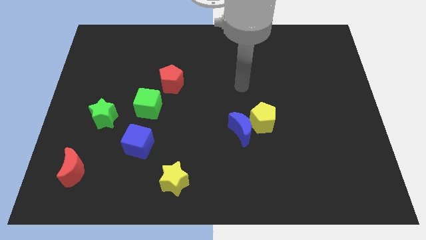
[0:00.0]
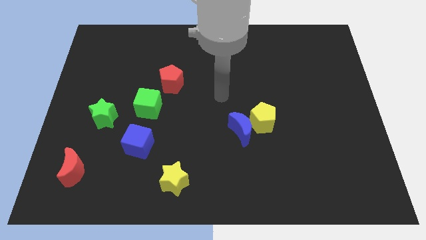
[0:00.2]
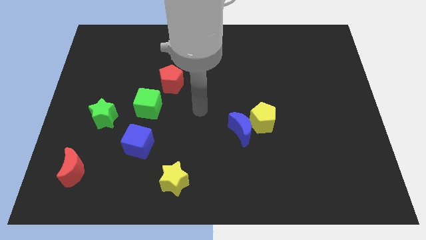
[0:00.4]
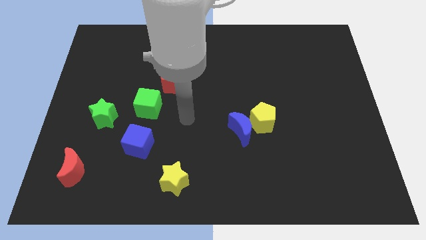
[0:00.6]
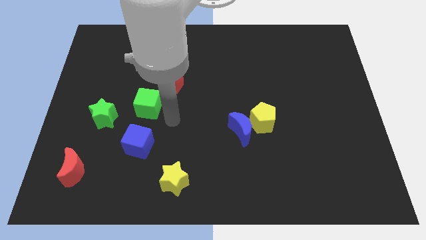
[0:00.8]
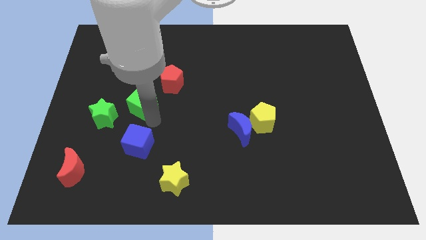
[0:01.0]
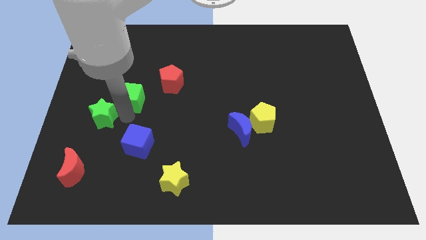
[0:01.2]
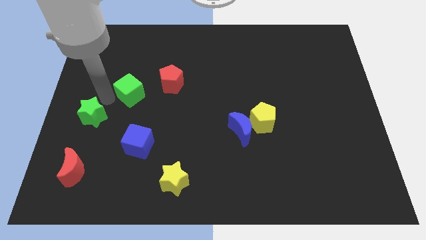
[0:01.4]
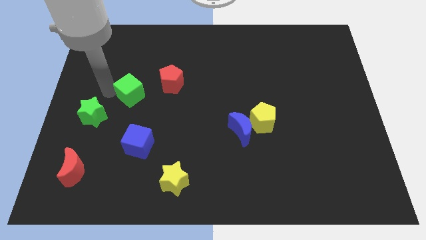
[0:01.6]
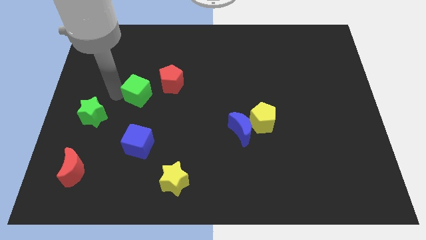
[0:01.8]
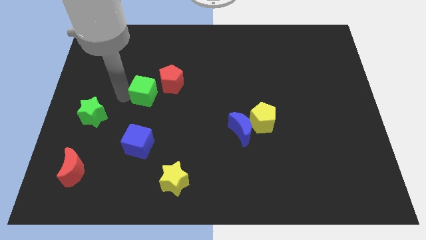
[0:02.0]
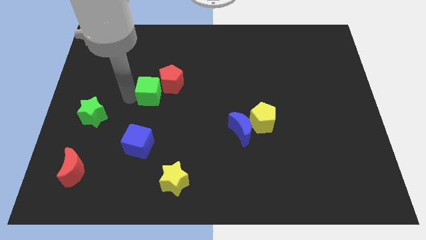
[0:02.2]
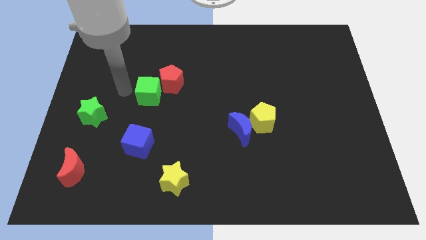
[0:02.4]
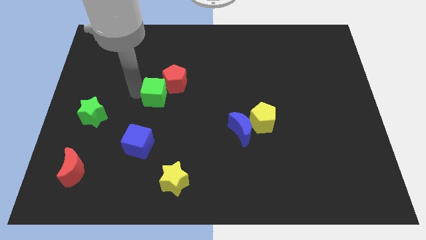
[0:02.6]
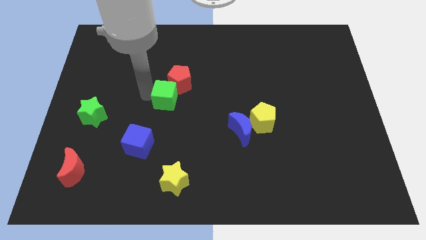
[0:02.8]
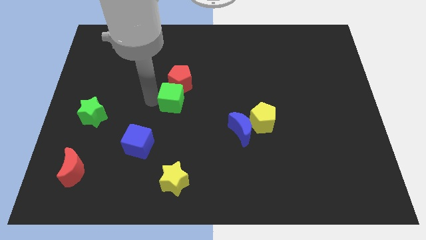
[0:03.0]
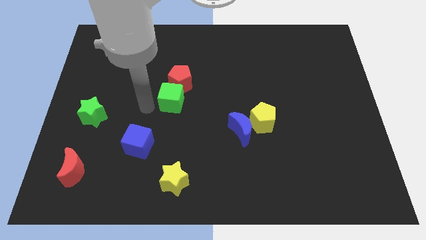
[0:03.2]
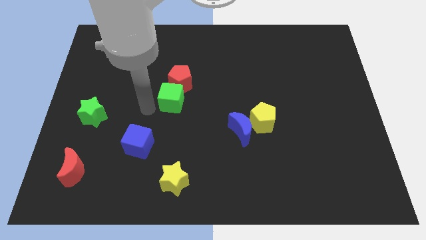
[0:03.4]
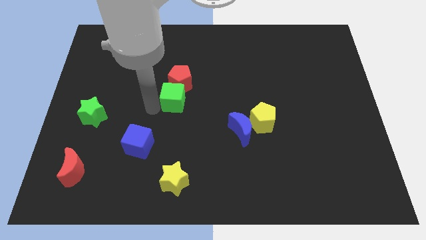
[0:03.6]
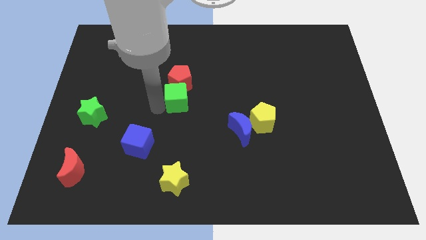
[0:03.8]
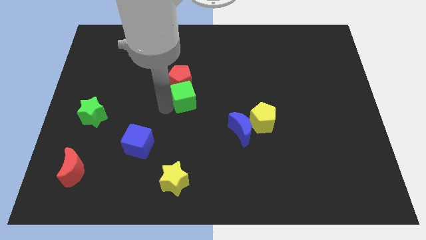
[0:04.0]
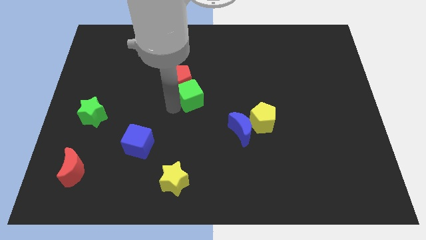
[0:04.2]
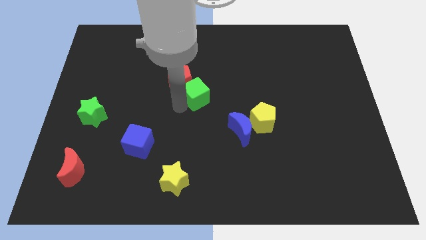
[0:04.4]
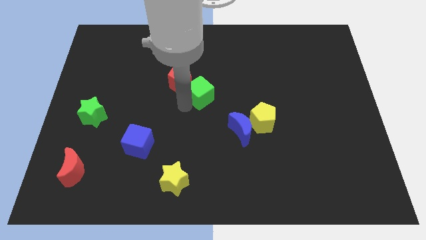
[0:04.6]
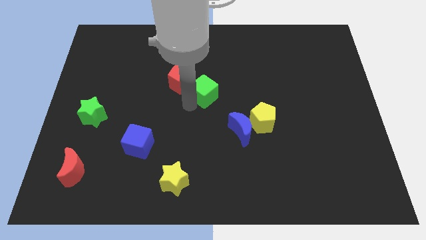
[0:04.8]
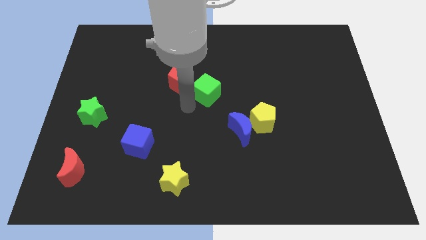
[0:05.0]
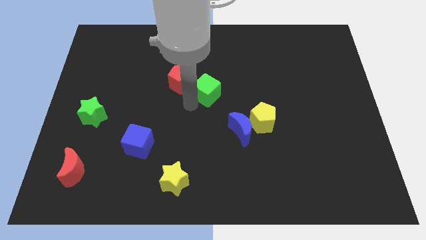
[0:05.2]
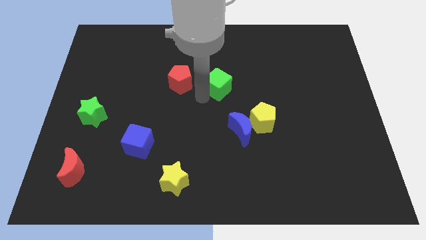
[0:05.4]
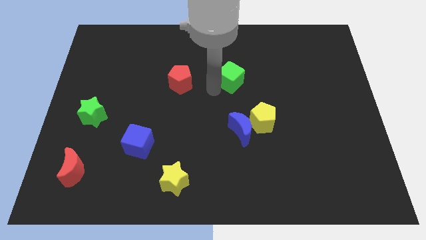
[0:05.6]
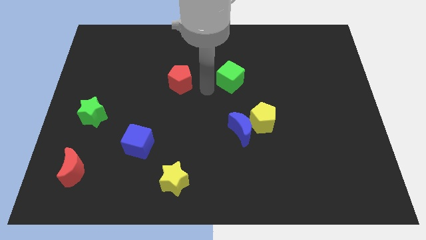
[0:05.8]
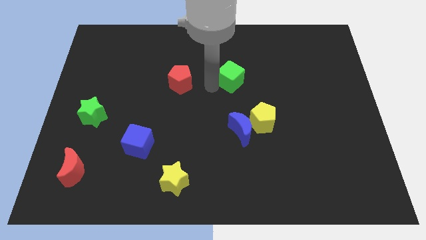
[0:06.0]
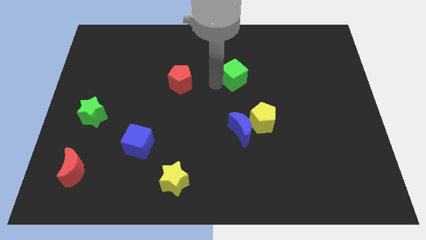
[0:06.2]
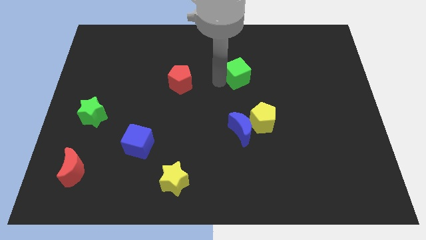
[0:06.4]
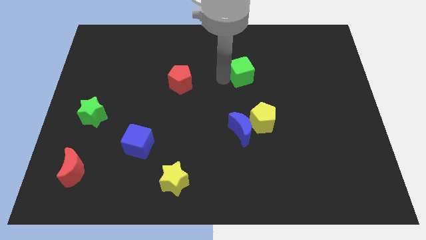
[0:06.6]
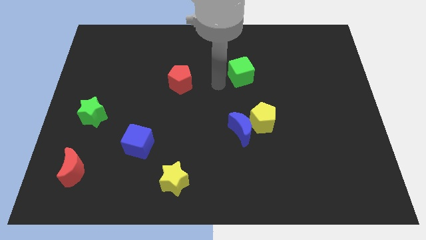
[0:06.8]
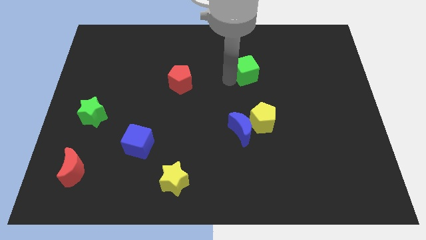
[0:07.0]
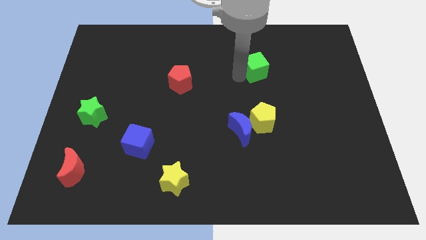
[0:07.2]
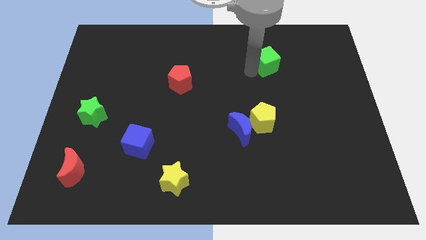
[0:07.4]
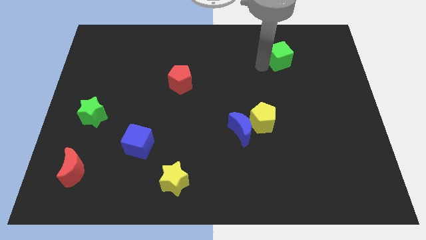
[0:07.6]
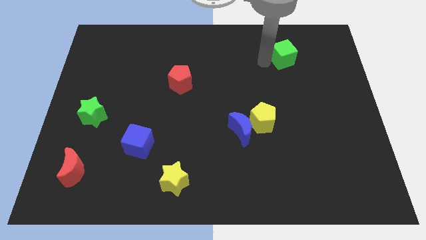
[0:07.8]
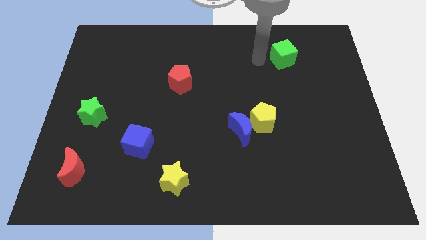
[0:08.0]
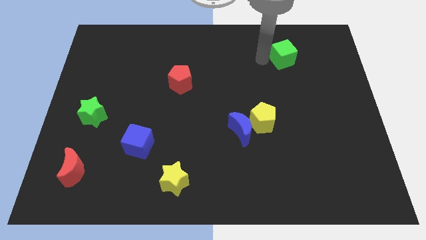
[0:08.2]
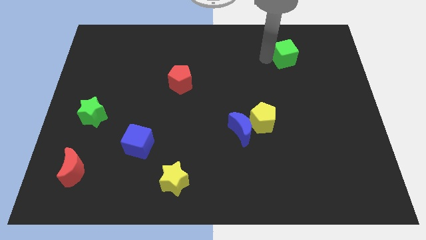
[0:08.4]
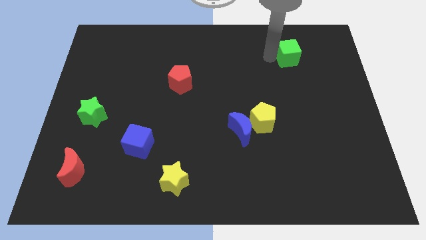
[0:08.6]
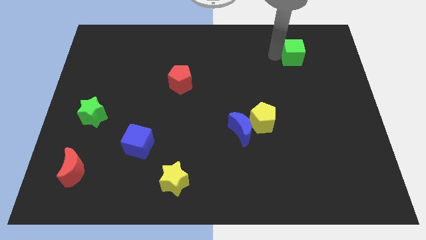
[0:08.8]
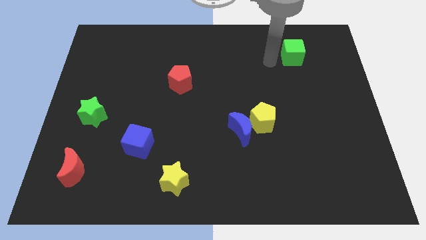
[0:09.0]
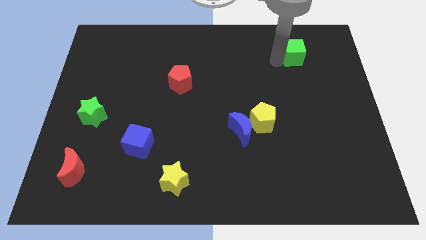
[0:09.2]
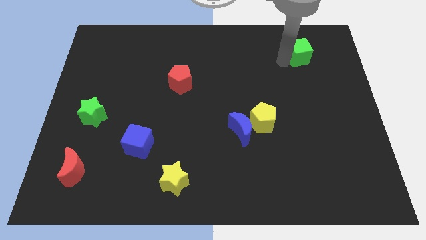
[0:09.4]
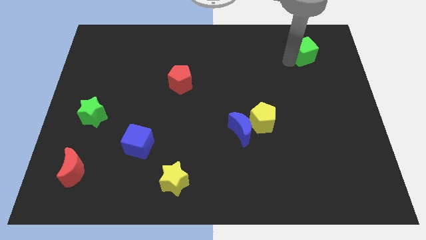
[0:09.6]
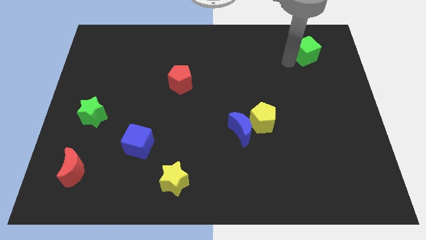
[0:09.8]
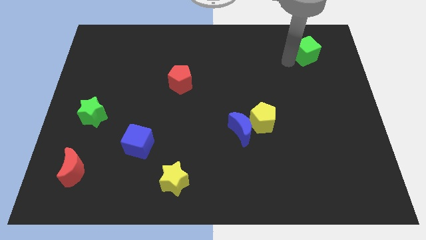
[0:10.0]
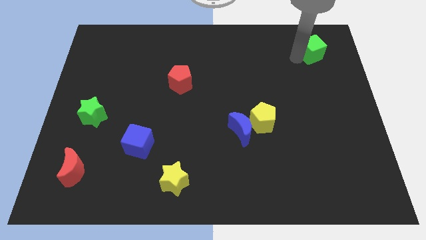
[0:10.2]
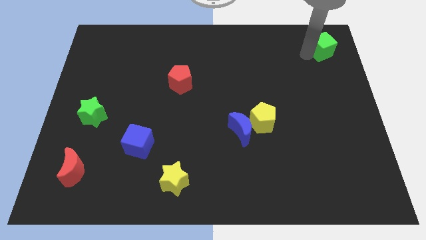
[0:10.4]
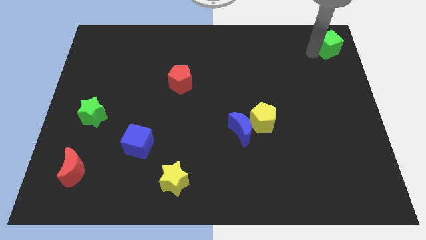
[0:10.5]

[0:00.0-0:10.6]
put the green cube to the top right corner

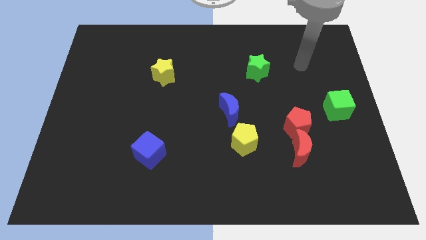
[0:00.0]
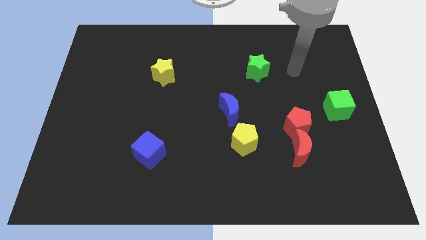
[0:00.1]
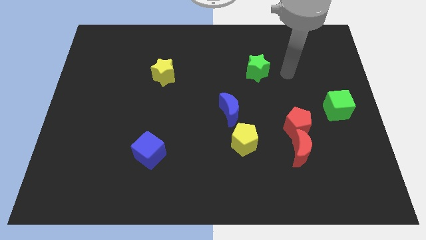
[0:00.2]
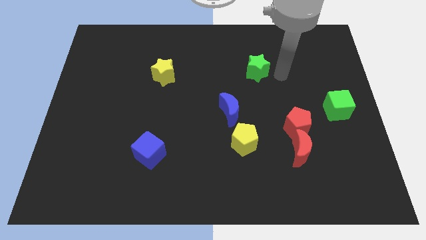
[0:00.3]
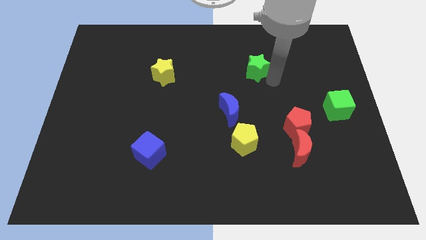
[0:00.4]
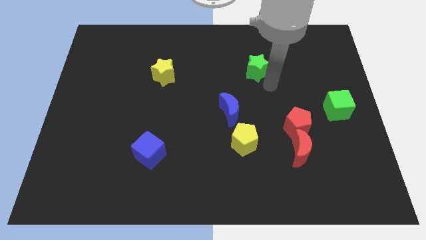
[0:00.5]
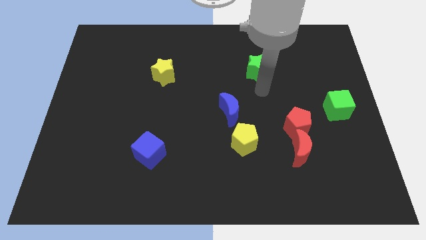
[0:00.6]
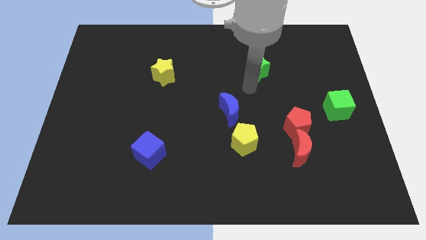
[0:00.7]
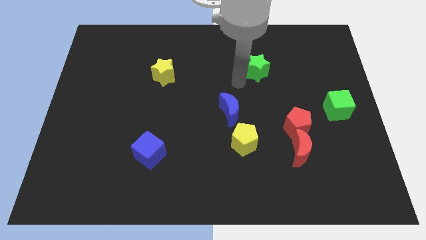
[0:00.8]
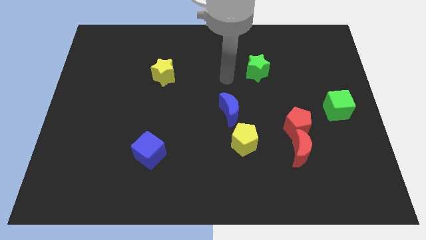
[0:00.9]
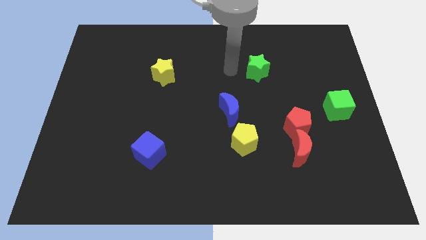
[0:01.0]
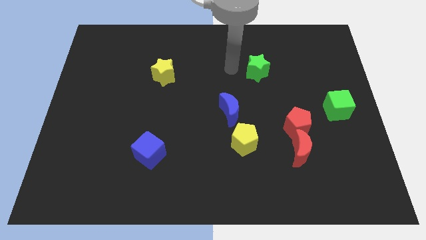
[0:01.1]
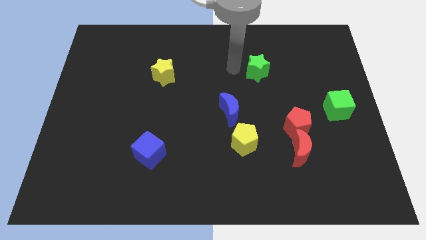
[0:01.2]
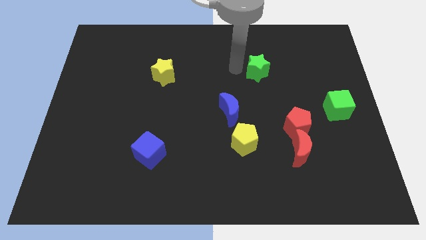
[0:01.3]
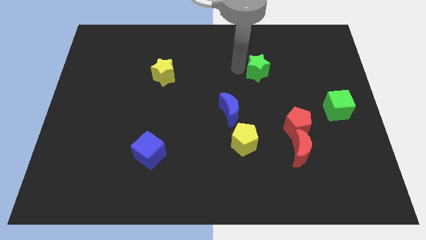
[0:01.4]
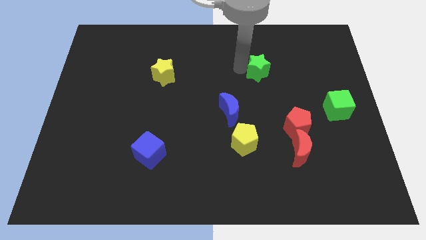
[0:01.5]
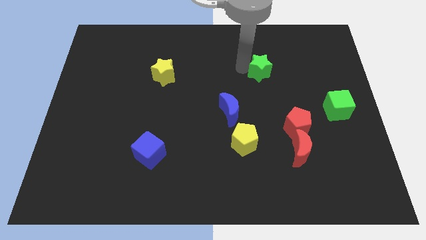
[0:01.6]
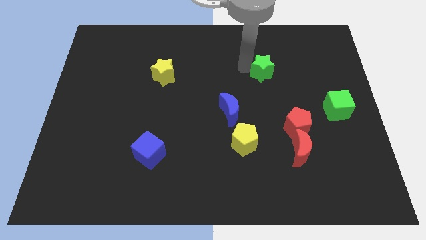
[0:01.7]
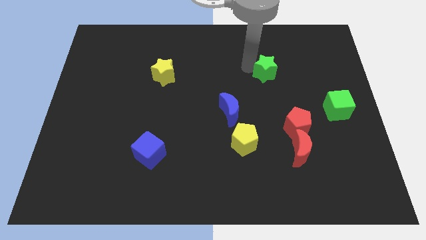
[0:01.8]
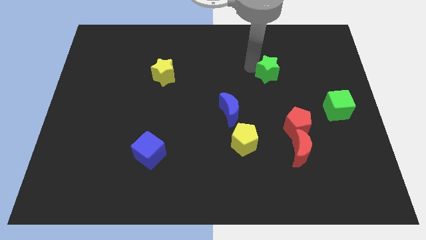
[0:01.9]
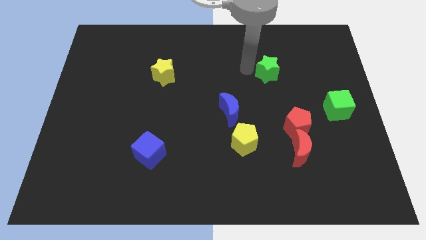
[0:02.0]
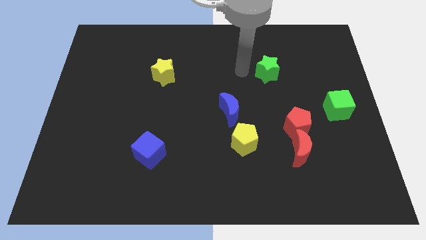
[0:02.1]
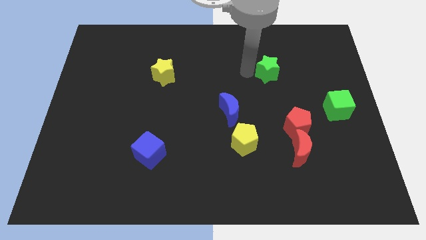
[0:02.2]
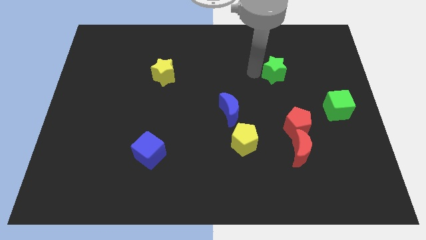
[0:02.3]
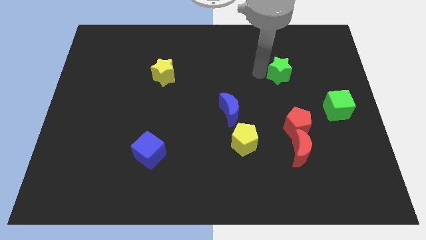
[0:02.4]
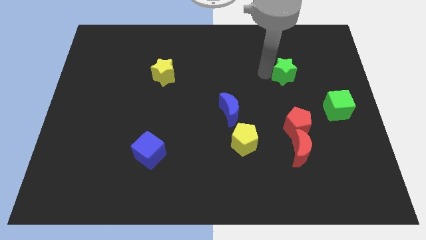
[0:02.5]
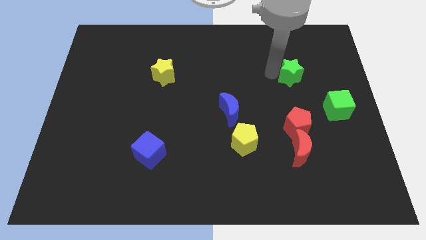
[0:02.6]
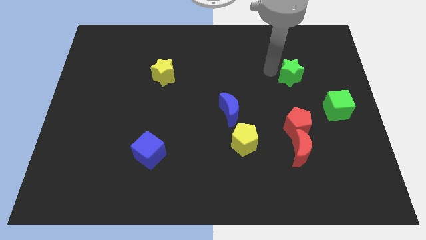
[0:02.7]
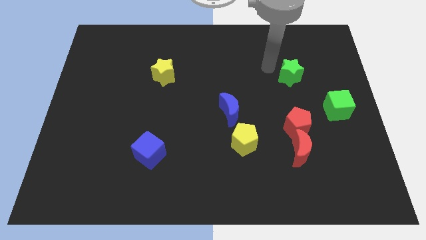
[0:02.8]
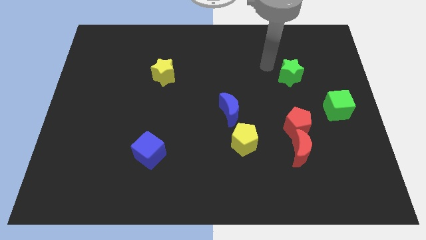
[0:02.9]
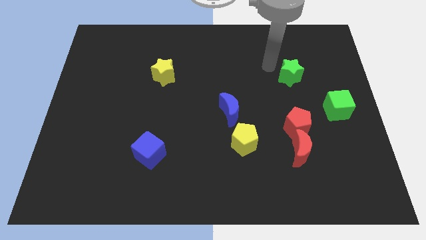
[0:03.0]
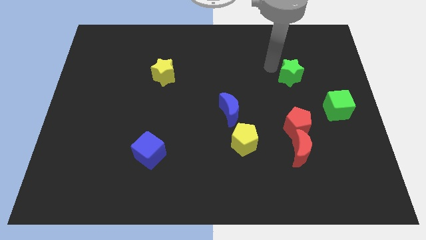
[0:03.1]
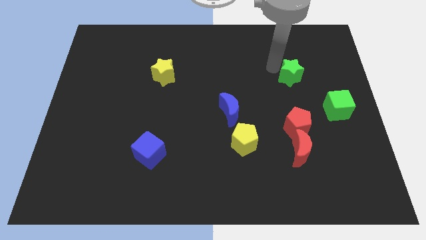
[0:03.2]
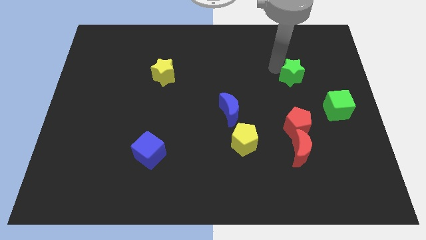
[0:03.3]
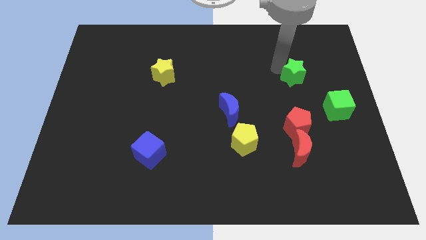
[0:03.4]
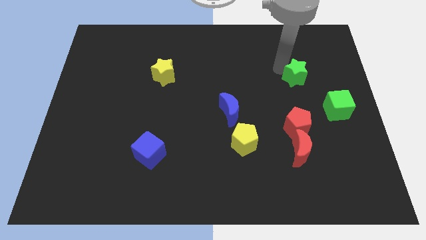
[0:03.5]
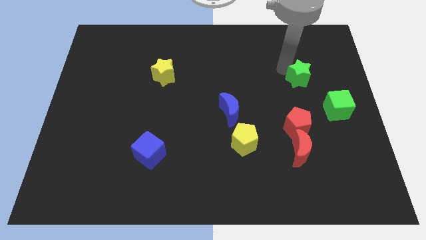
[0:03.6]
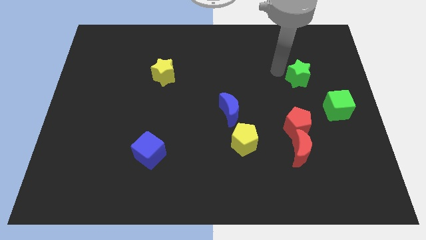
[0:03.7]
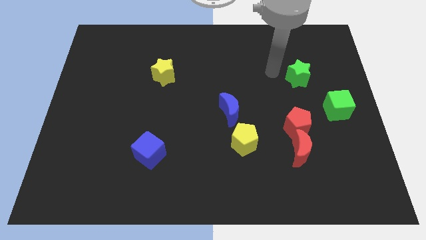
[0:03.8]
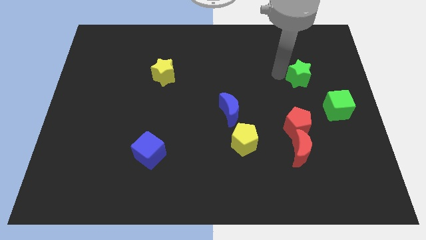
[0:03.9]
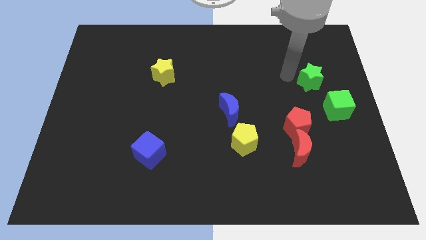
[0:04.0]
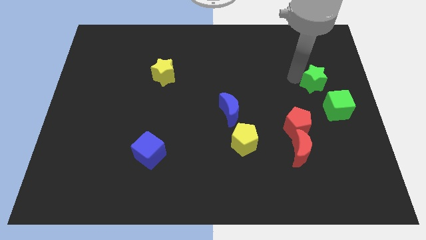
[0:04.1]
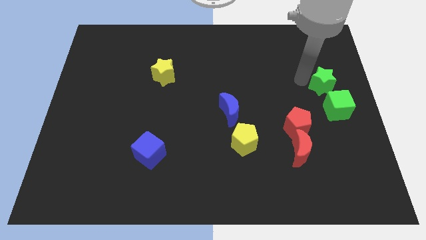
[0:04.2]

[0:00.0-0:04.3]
put the green star to the right side
